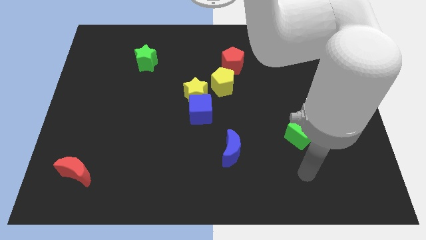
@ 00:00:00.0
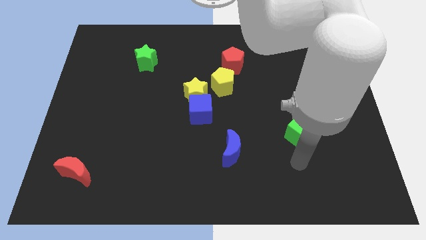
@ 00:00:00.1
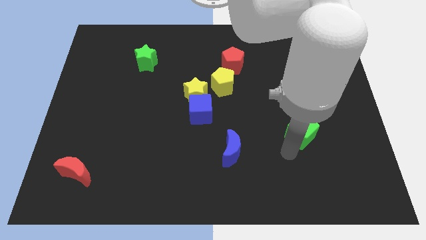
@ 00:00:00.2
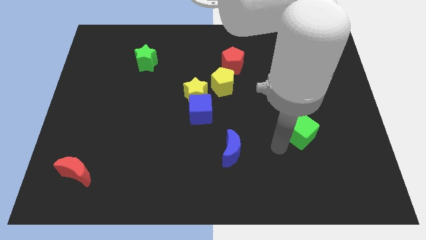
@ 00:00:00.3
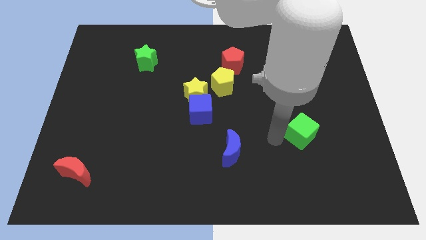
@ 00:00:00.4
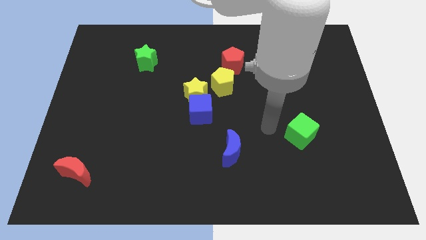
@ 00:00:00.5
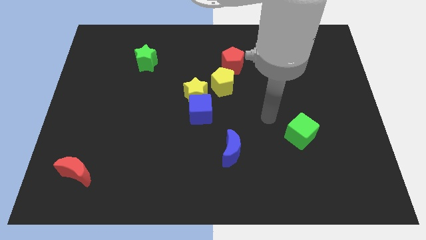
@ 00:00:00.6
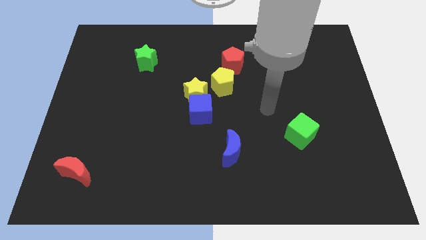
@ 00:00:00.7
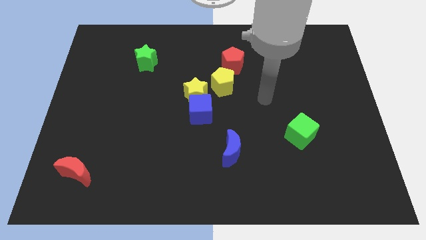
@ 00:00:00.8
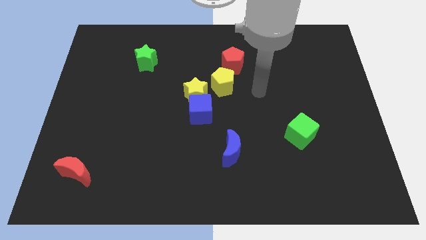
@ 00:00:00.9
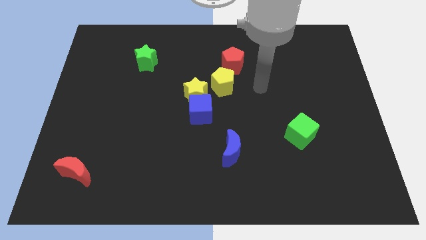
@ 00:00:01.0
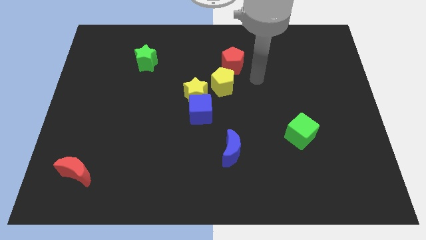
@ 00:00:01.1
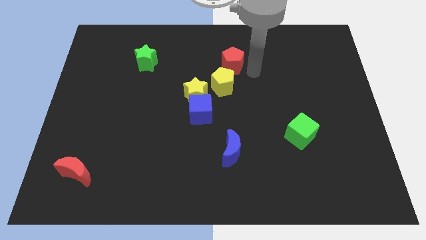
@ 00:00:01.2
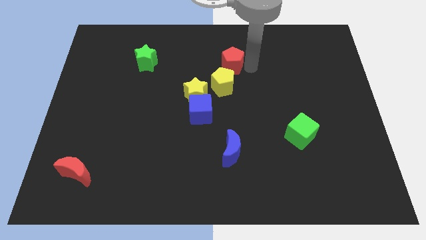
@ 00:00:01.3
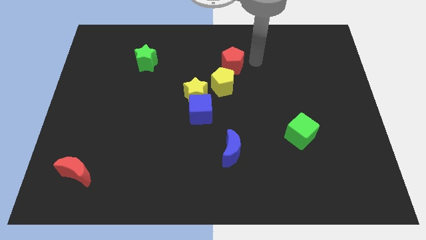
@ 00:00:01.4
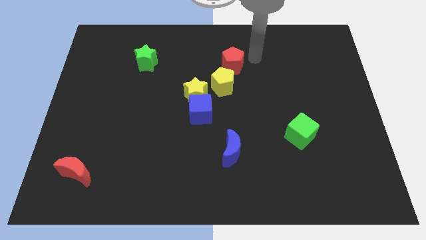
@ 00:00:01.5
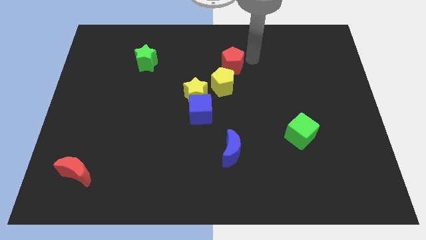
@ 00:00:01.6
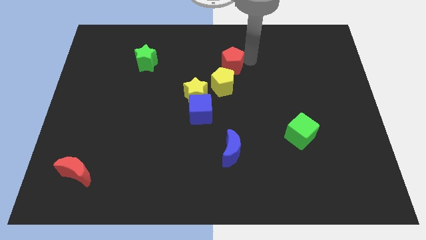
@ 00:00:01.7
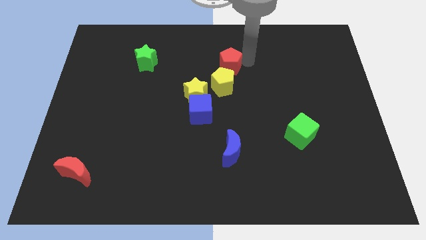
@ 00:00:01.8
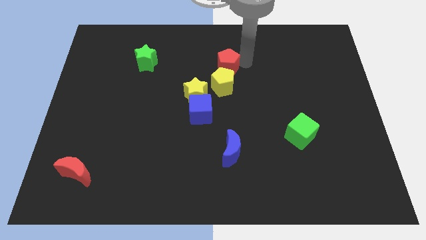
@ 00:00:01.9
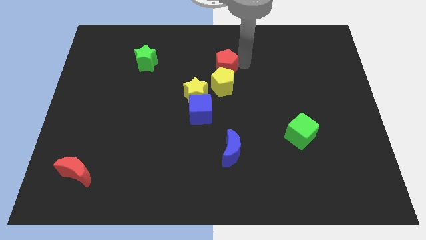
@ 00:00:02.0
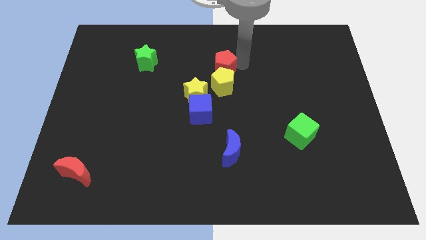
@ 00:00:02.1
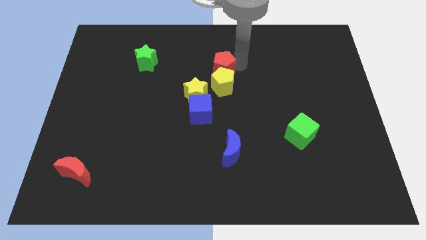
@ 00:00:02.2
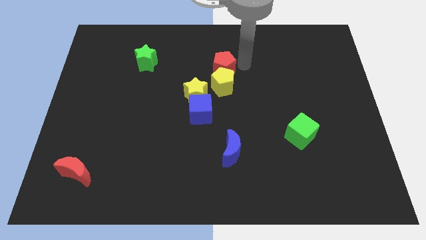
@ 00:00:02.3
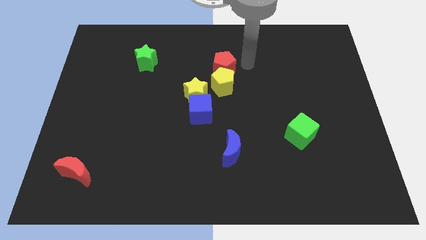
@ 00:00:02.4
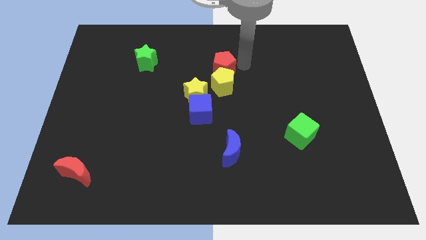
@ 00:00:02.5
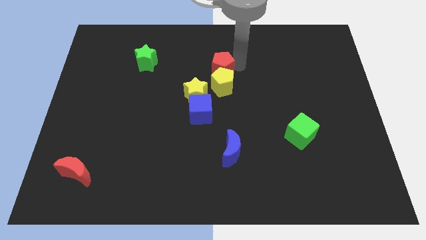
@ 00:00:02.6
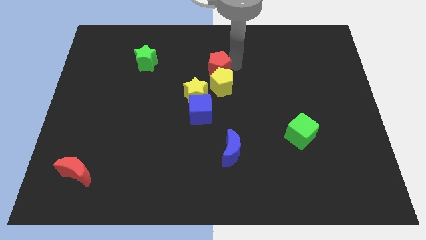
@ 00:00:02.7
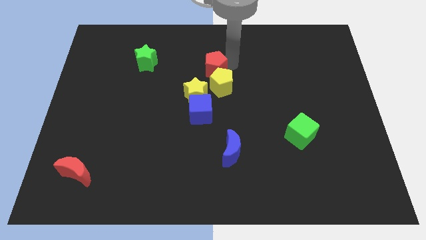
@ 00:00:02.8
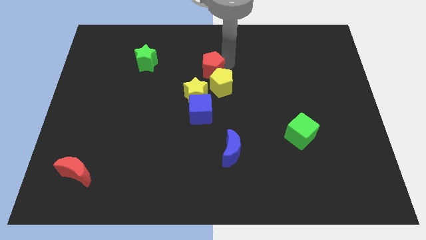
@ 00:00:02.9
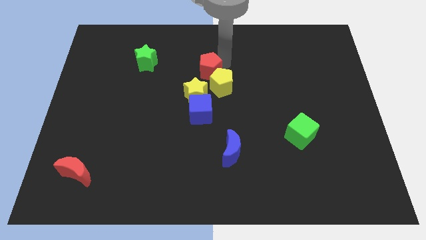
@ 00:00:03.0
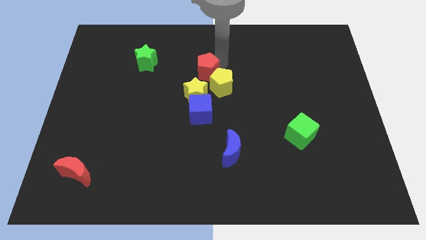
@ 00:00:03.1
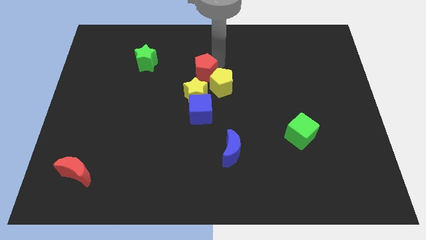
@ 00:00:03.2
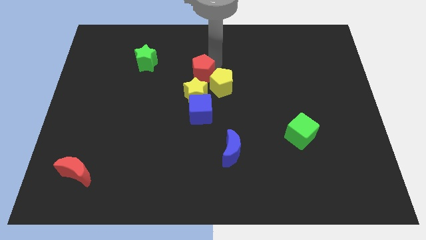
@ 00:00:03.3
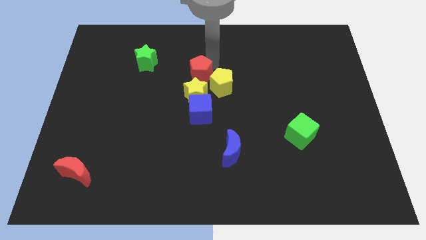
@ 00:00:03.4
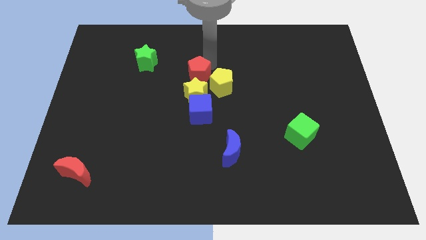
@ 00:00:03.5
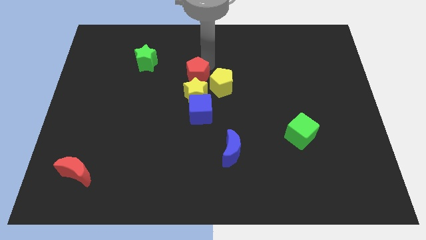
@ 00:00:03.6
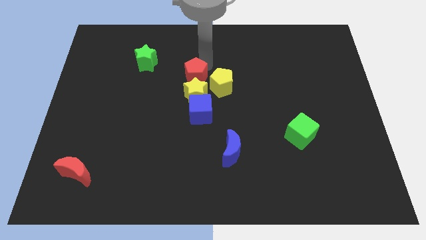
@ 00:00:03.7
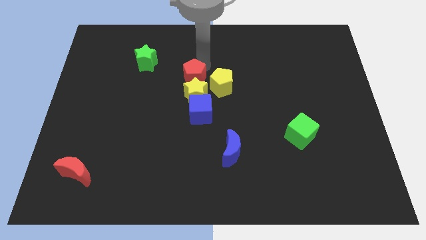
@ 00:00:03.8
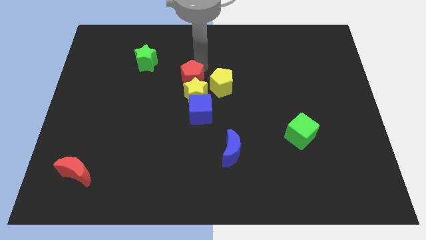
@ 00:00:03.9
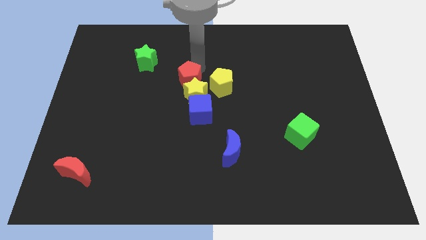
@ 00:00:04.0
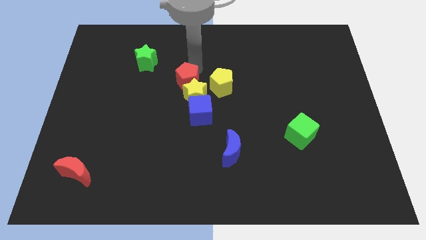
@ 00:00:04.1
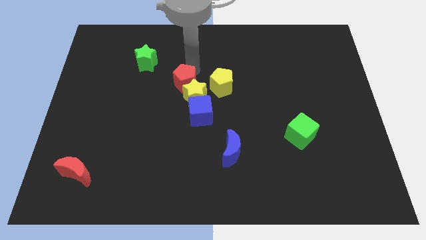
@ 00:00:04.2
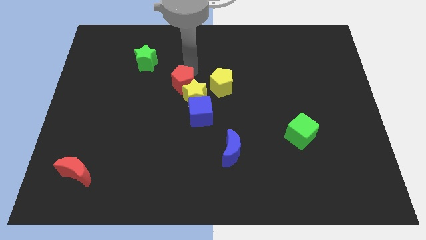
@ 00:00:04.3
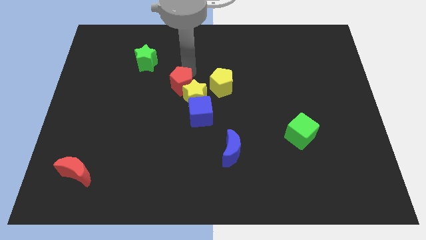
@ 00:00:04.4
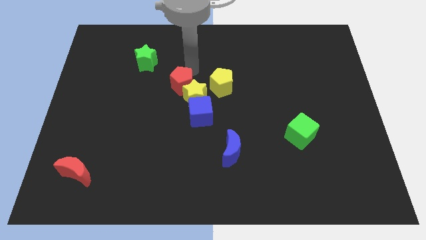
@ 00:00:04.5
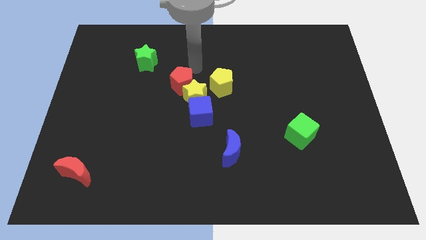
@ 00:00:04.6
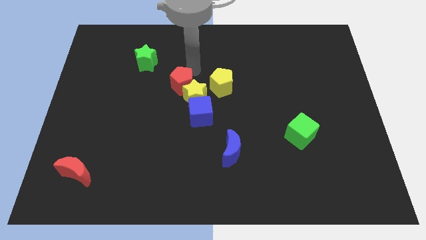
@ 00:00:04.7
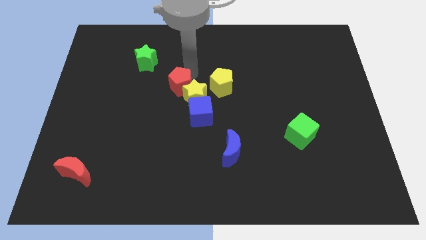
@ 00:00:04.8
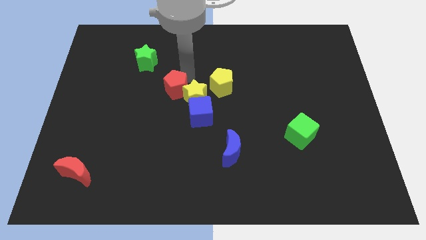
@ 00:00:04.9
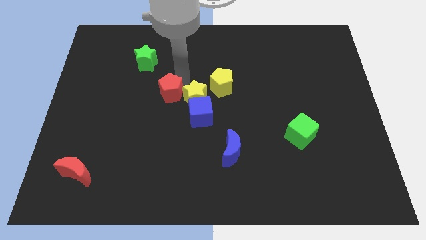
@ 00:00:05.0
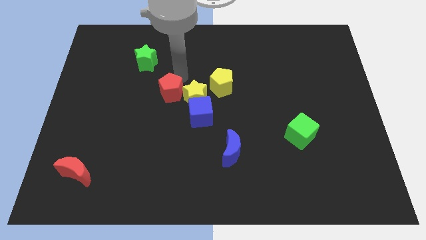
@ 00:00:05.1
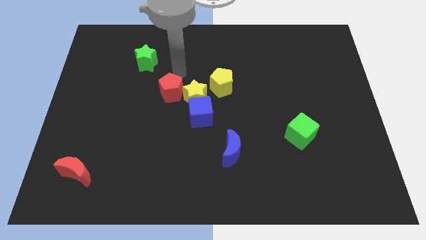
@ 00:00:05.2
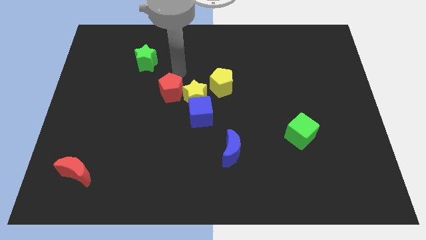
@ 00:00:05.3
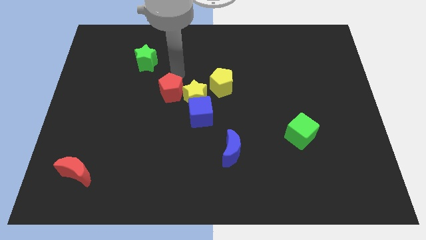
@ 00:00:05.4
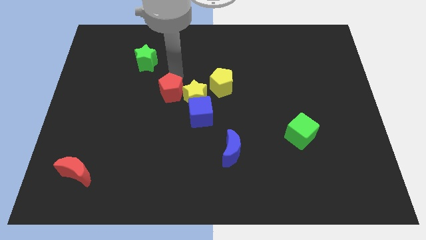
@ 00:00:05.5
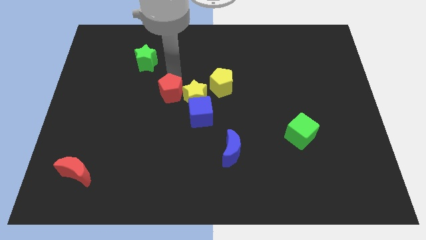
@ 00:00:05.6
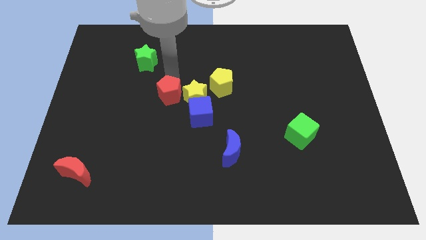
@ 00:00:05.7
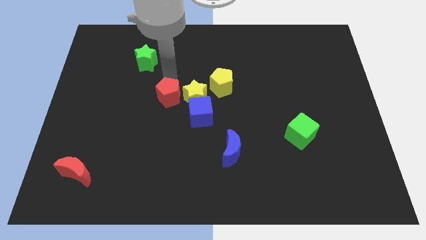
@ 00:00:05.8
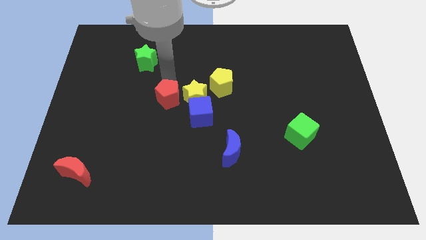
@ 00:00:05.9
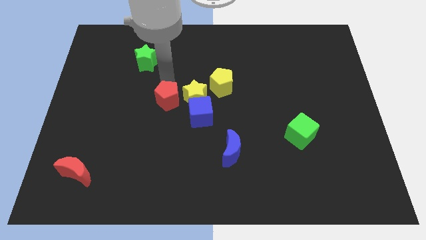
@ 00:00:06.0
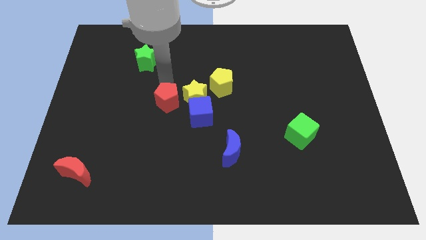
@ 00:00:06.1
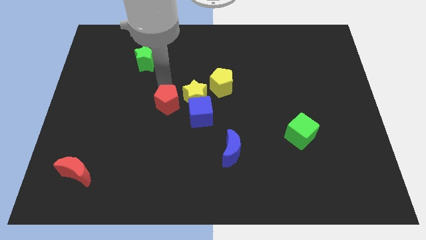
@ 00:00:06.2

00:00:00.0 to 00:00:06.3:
slide the red pentagon downwards and then left

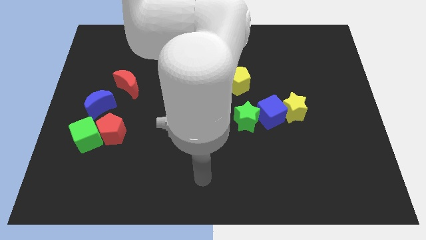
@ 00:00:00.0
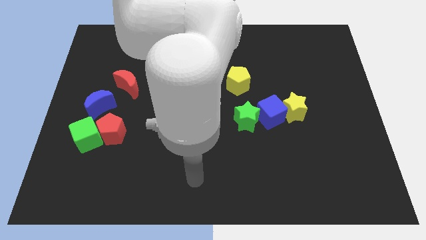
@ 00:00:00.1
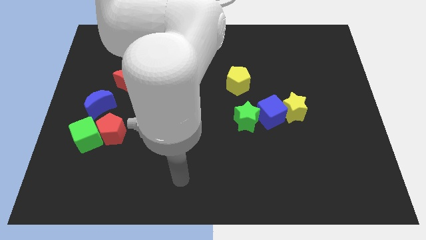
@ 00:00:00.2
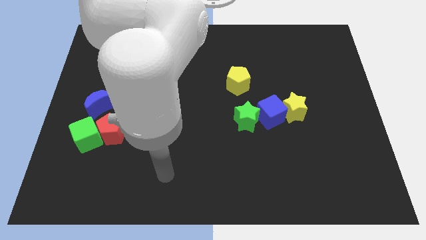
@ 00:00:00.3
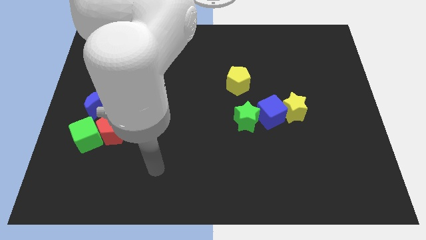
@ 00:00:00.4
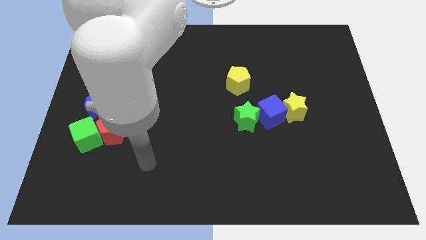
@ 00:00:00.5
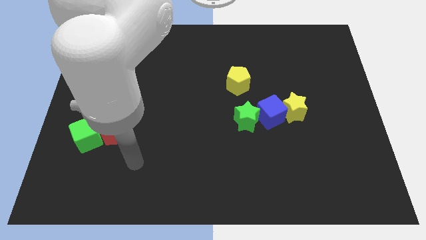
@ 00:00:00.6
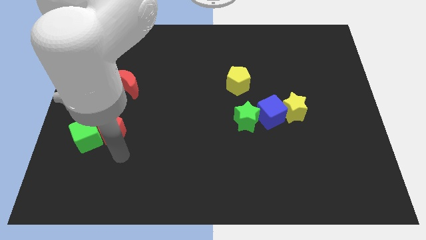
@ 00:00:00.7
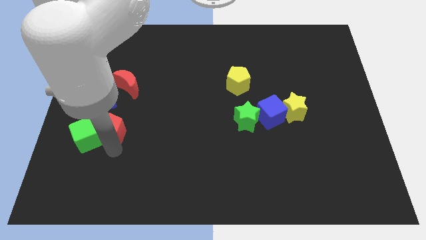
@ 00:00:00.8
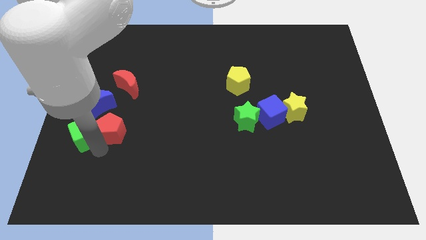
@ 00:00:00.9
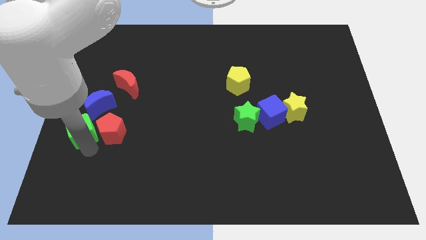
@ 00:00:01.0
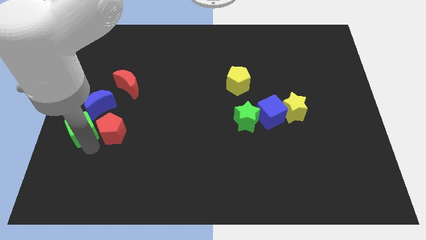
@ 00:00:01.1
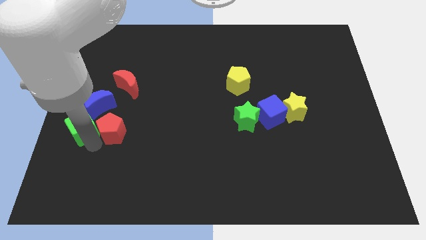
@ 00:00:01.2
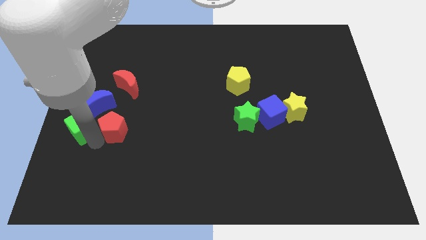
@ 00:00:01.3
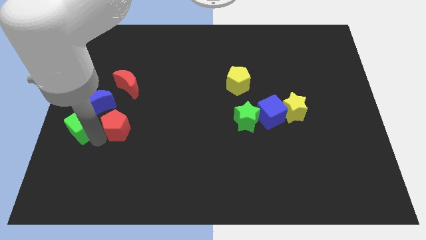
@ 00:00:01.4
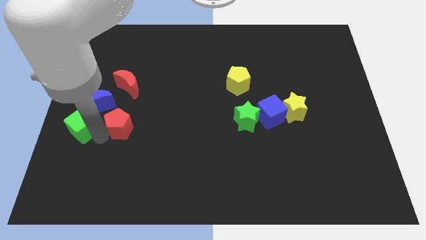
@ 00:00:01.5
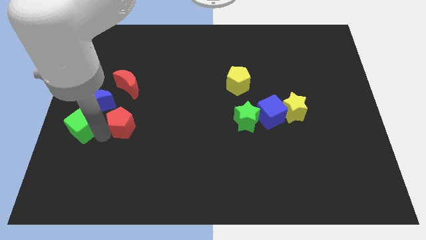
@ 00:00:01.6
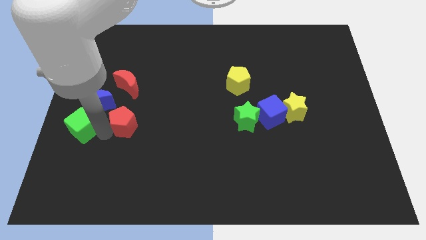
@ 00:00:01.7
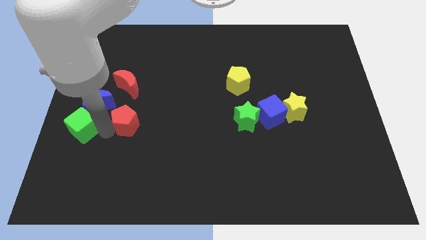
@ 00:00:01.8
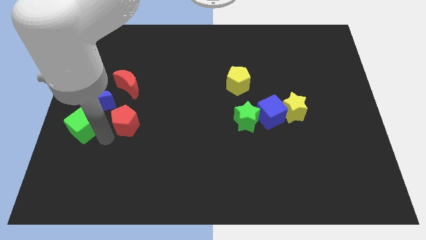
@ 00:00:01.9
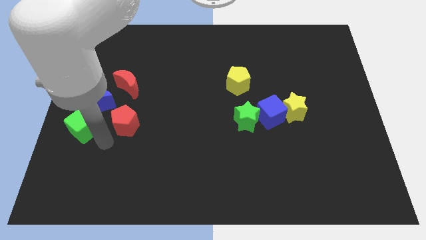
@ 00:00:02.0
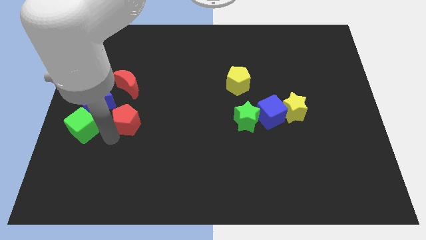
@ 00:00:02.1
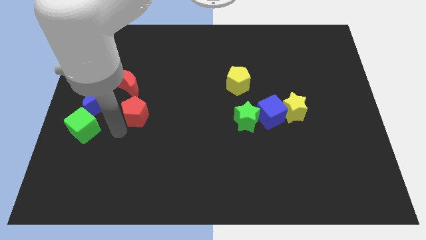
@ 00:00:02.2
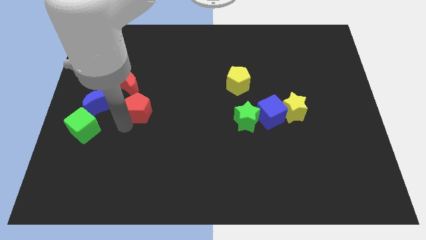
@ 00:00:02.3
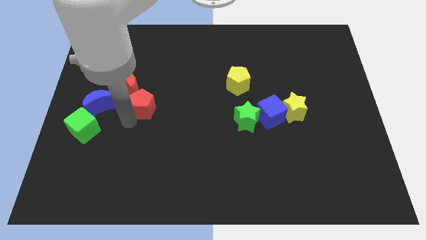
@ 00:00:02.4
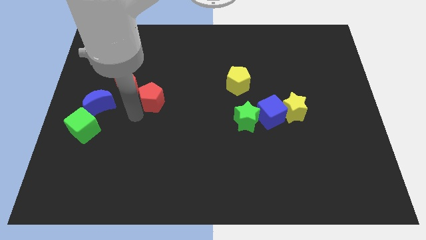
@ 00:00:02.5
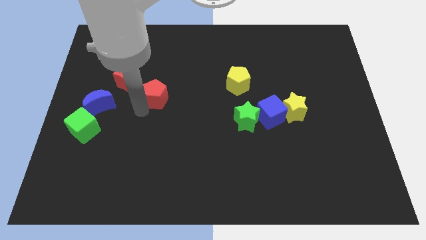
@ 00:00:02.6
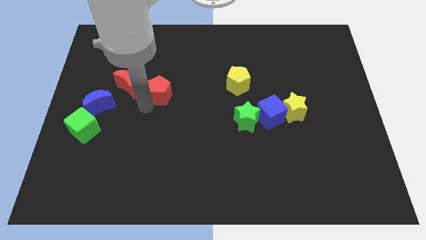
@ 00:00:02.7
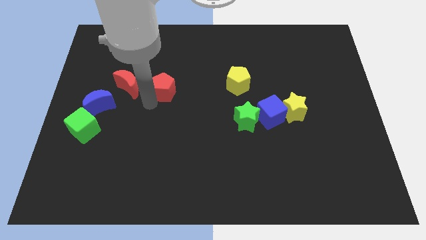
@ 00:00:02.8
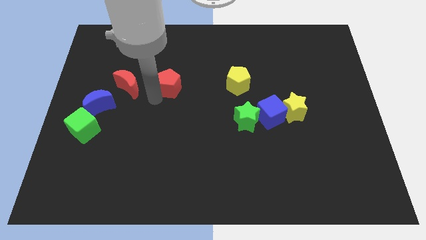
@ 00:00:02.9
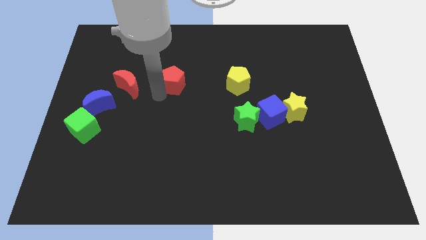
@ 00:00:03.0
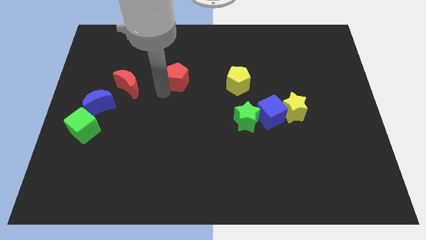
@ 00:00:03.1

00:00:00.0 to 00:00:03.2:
push the red pentagon upwards and right diagonally
